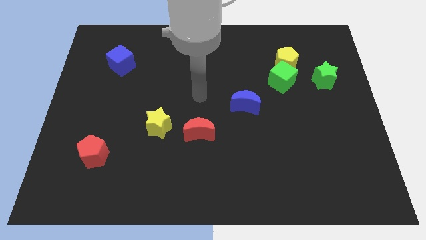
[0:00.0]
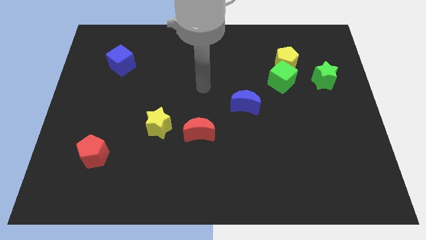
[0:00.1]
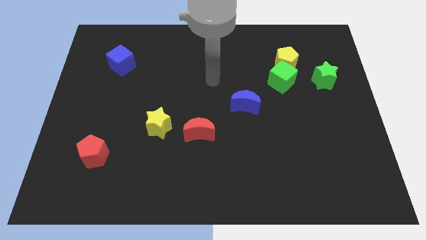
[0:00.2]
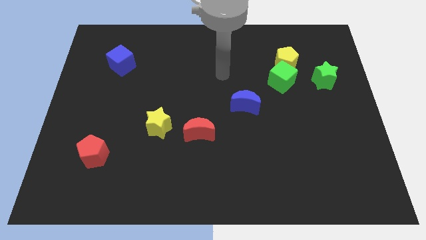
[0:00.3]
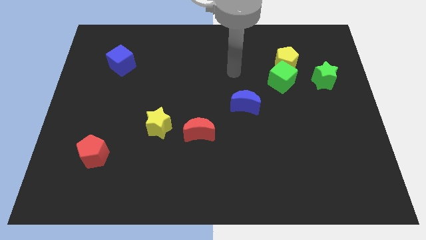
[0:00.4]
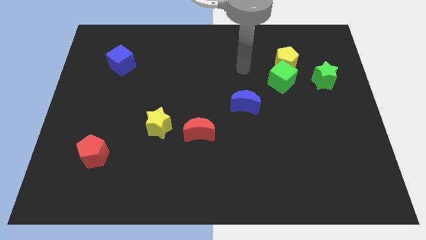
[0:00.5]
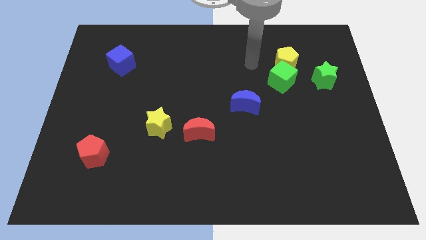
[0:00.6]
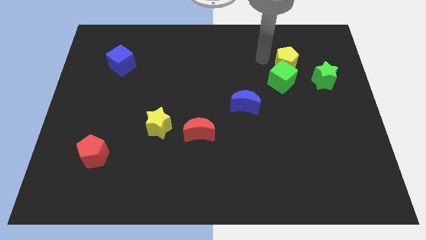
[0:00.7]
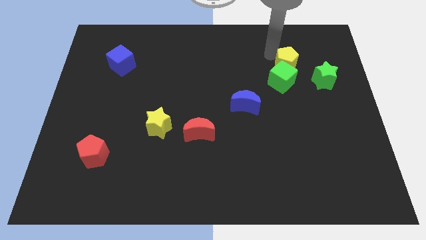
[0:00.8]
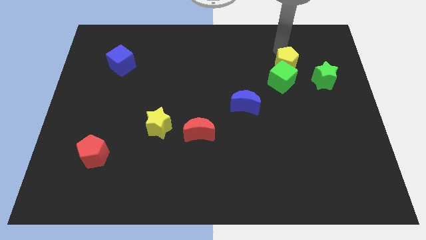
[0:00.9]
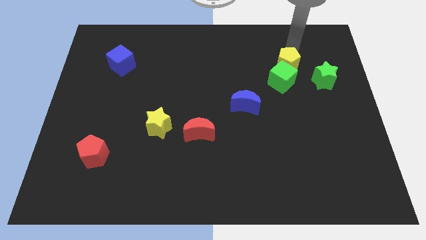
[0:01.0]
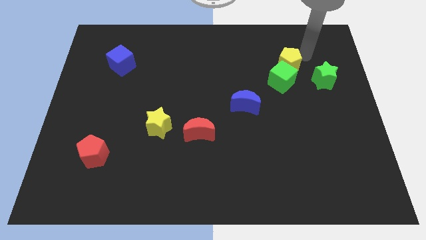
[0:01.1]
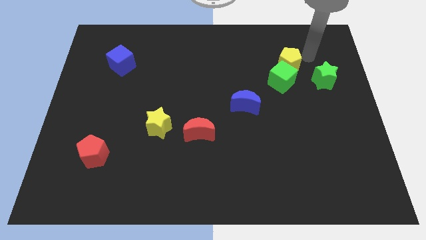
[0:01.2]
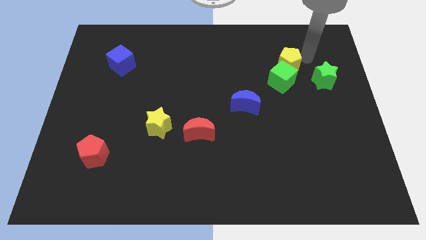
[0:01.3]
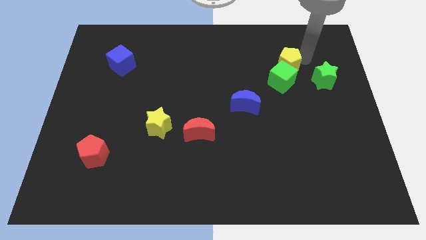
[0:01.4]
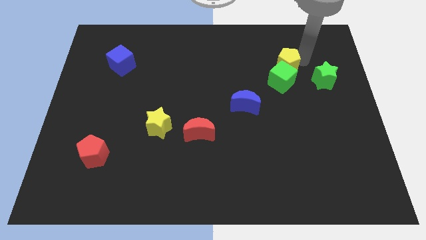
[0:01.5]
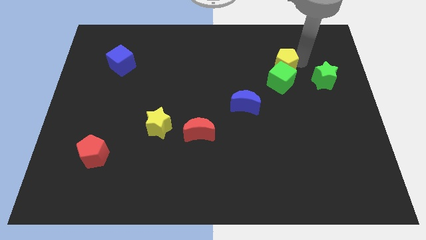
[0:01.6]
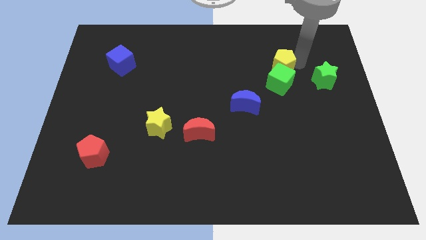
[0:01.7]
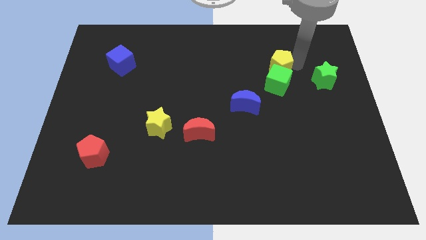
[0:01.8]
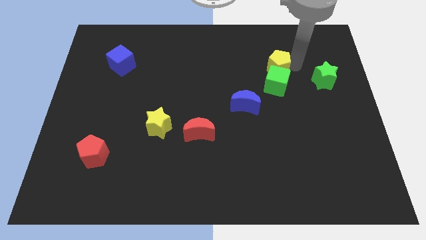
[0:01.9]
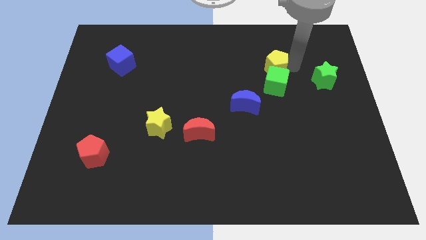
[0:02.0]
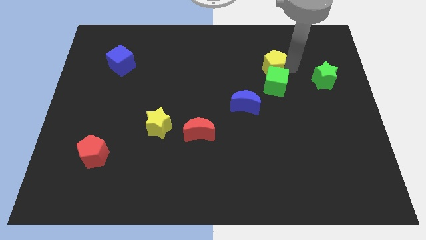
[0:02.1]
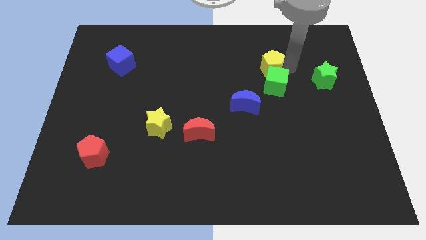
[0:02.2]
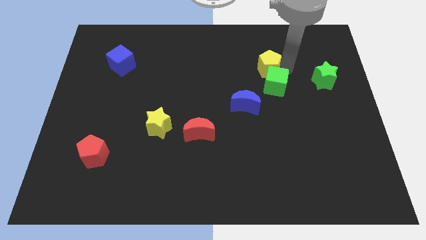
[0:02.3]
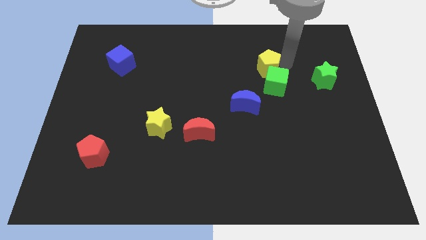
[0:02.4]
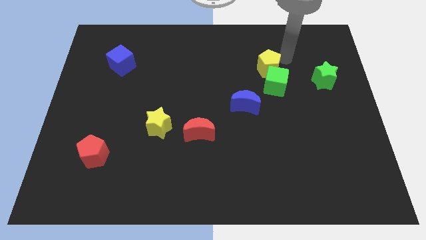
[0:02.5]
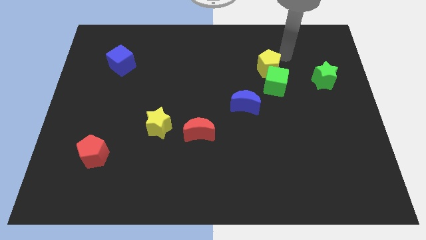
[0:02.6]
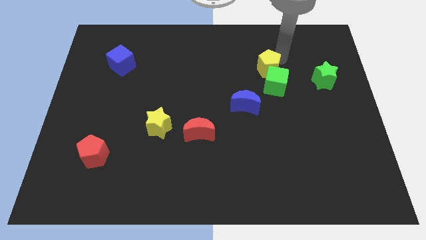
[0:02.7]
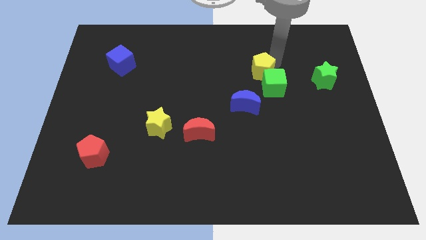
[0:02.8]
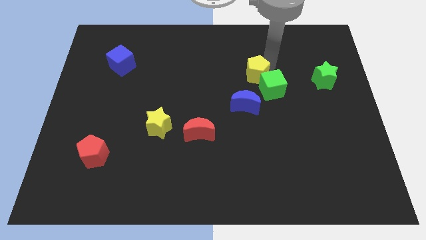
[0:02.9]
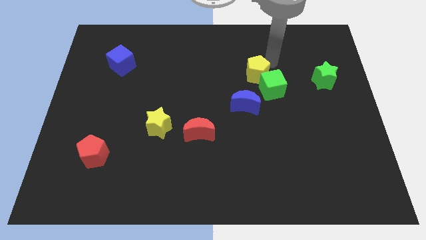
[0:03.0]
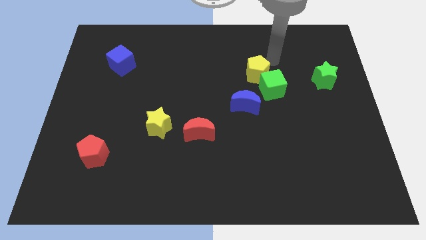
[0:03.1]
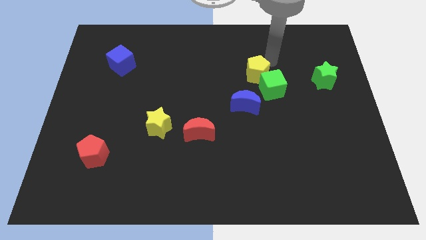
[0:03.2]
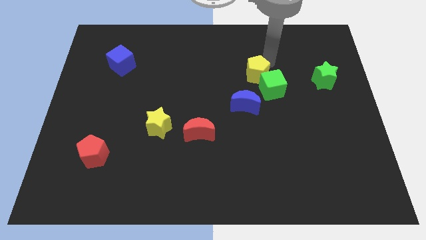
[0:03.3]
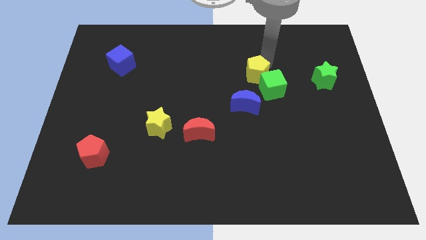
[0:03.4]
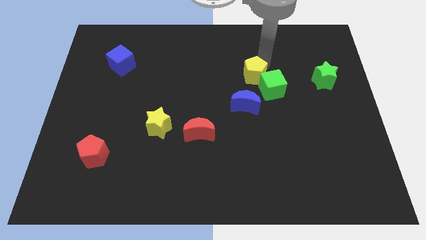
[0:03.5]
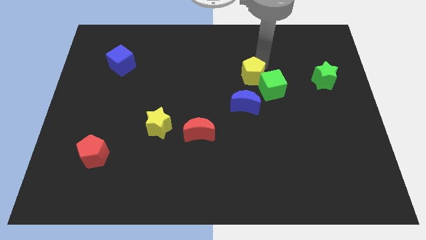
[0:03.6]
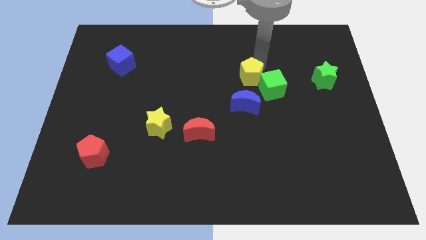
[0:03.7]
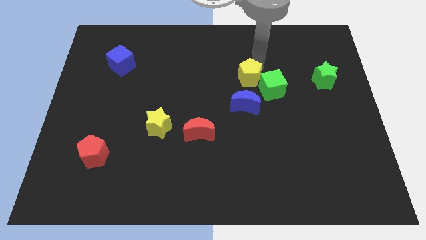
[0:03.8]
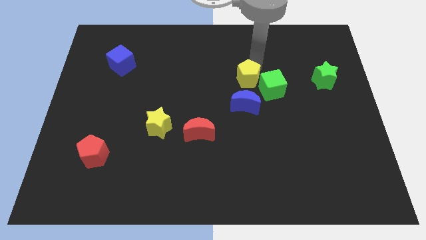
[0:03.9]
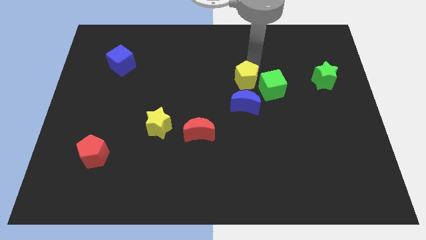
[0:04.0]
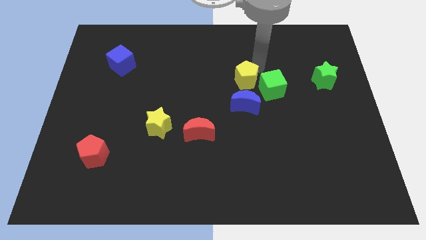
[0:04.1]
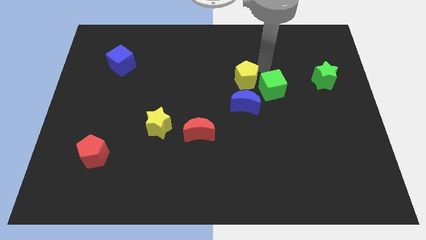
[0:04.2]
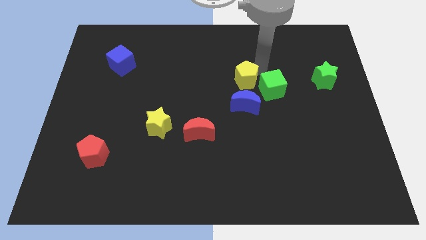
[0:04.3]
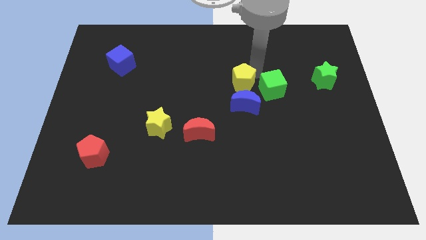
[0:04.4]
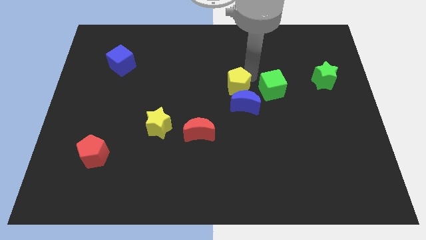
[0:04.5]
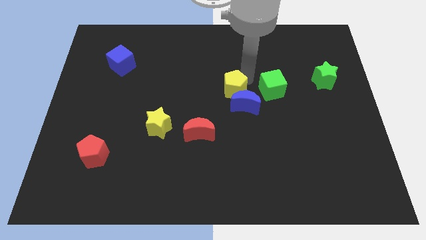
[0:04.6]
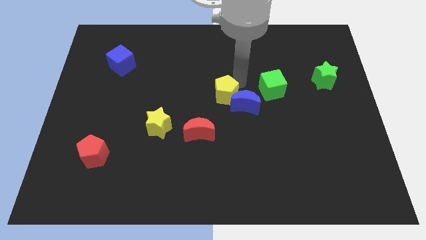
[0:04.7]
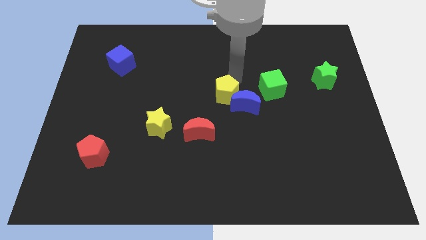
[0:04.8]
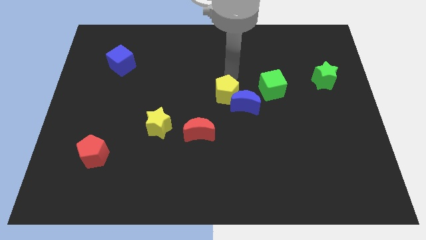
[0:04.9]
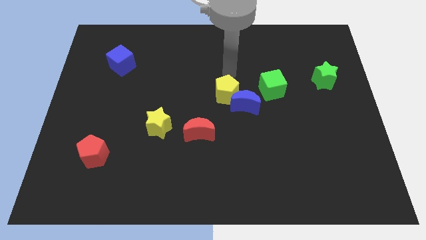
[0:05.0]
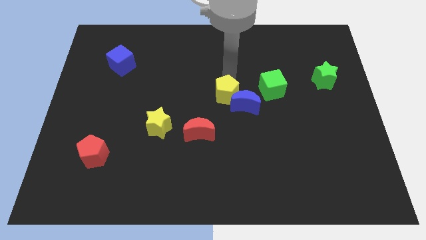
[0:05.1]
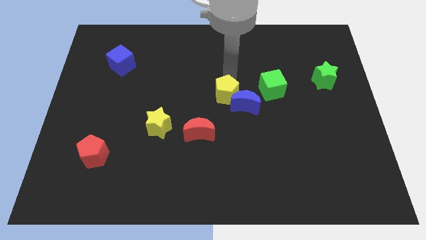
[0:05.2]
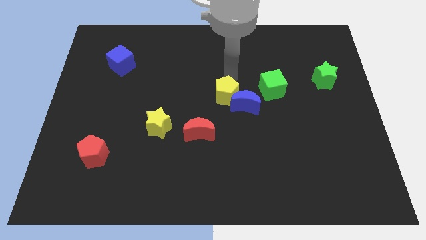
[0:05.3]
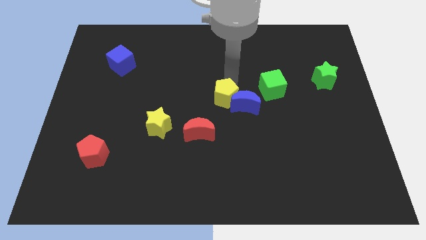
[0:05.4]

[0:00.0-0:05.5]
slide the yellow pentagon diagonally up and to the right of the red moon

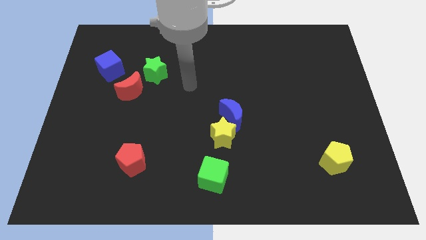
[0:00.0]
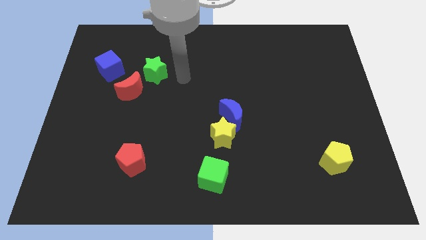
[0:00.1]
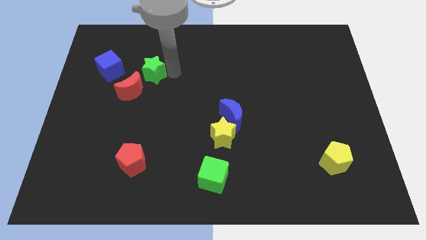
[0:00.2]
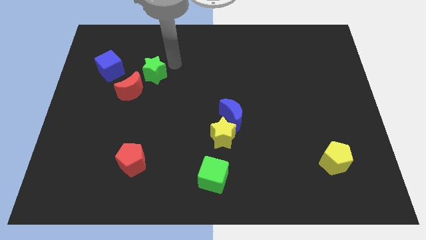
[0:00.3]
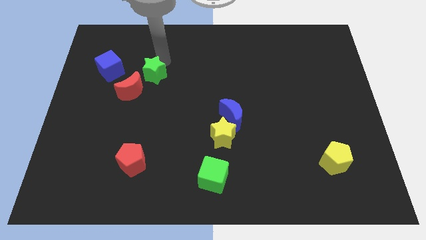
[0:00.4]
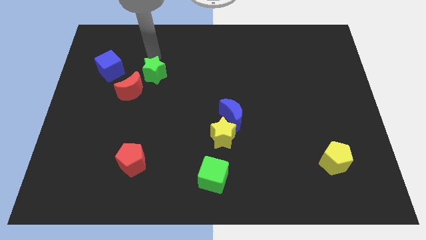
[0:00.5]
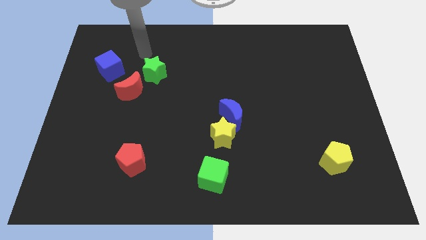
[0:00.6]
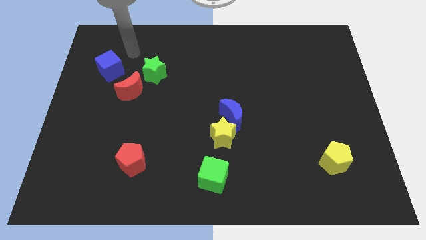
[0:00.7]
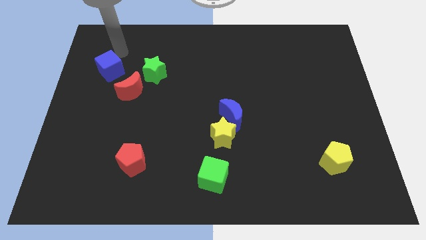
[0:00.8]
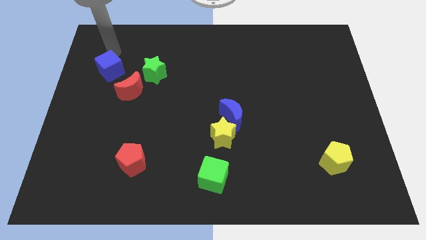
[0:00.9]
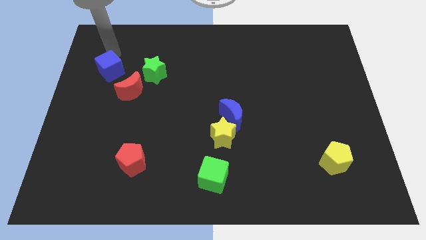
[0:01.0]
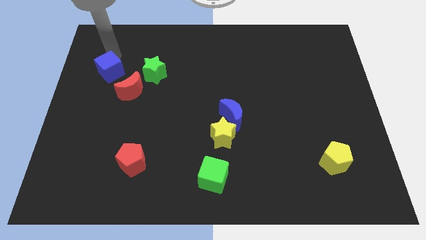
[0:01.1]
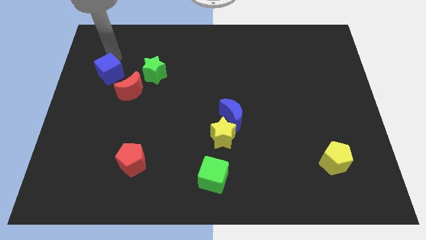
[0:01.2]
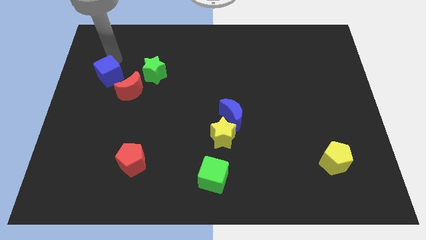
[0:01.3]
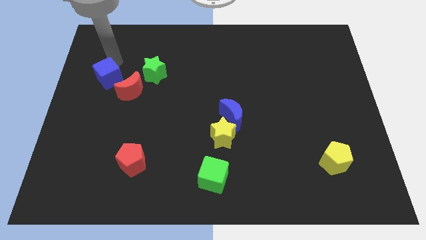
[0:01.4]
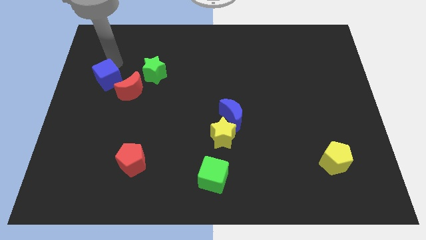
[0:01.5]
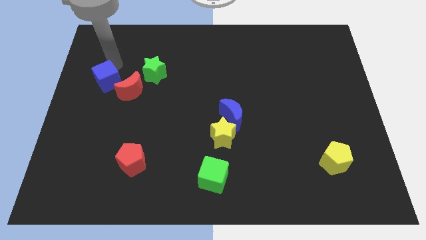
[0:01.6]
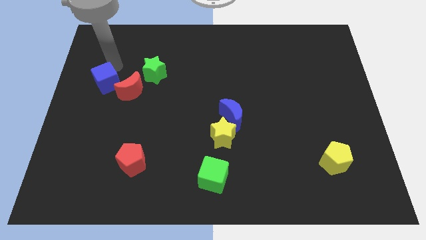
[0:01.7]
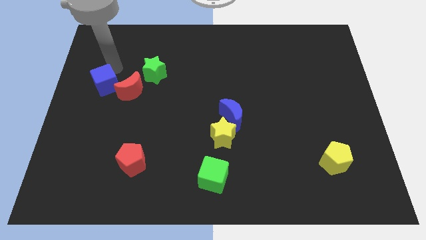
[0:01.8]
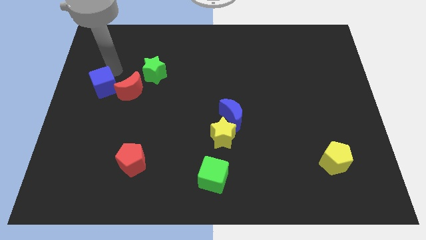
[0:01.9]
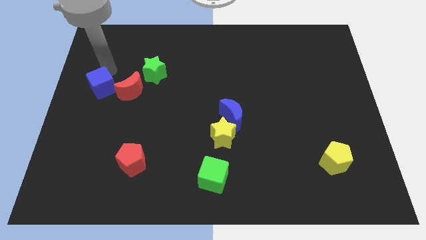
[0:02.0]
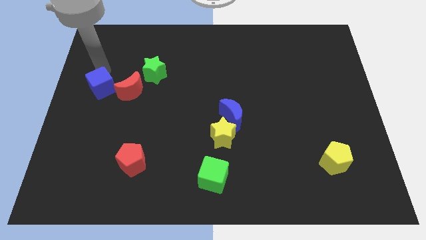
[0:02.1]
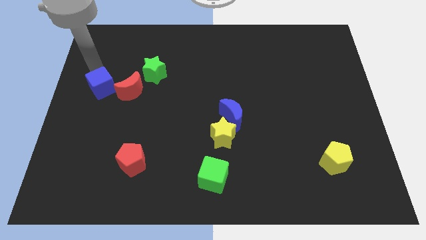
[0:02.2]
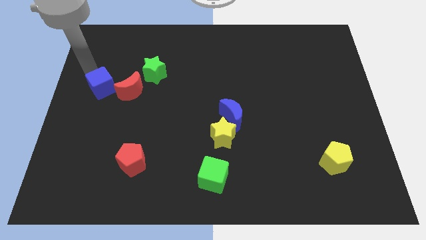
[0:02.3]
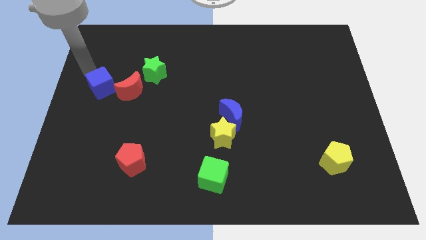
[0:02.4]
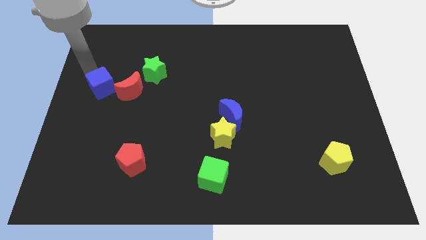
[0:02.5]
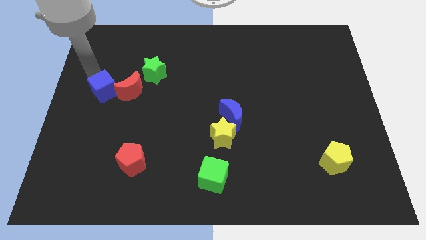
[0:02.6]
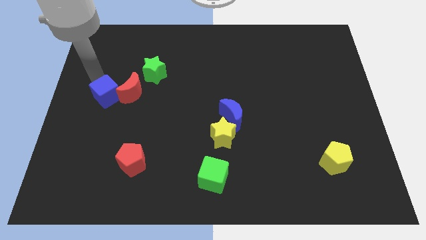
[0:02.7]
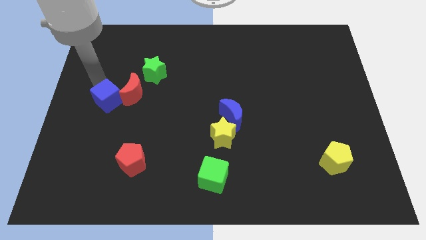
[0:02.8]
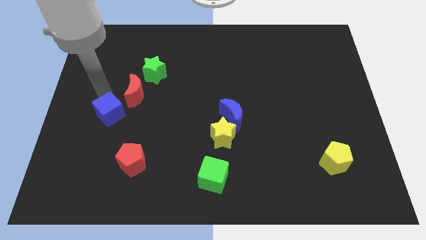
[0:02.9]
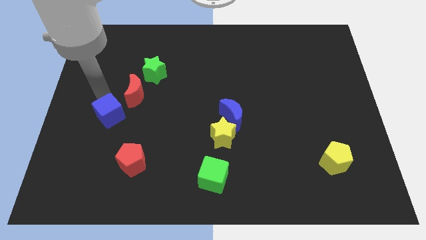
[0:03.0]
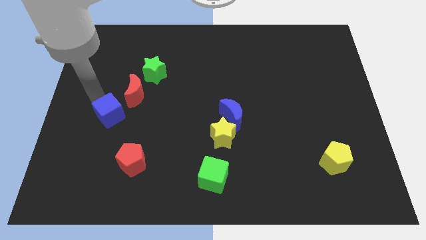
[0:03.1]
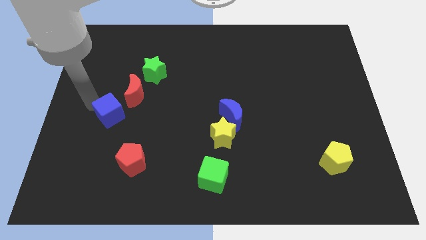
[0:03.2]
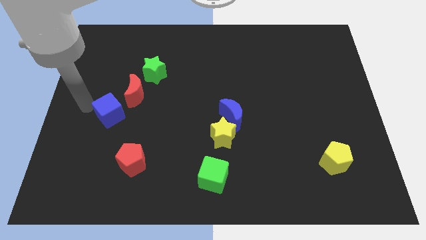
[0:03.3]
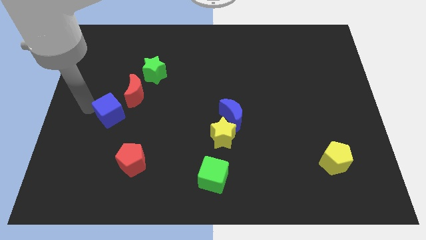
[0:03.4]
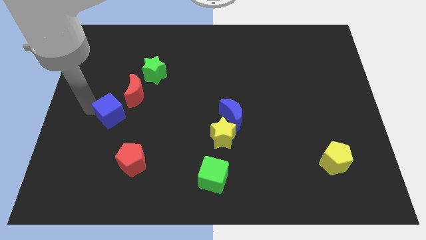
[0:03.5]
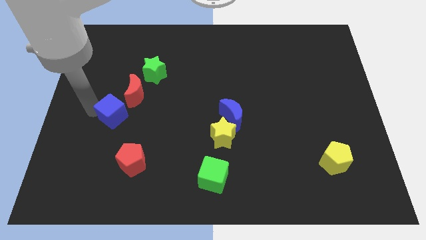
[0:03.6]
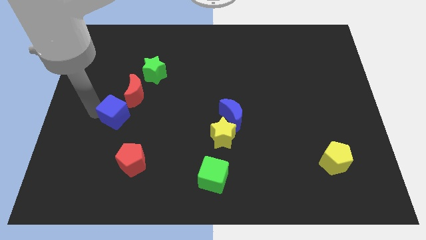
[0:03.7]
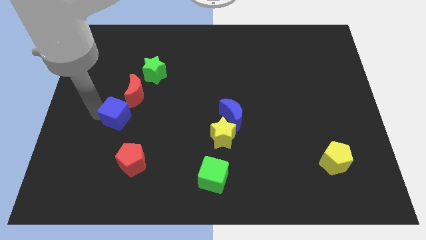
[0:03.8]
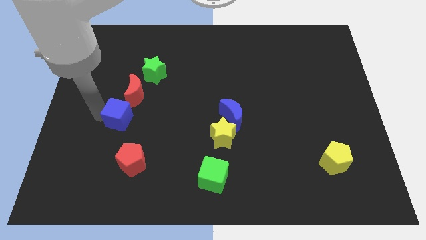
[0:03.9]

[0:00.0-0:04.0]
move the blue cube to the top of the red pentagon
